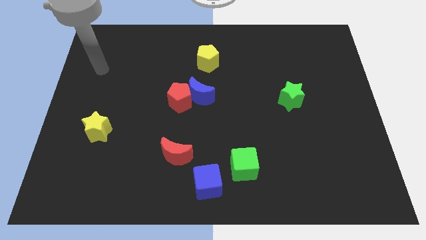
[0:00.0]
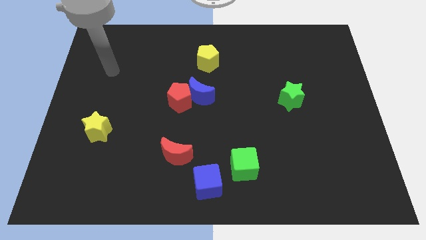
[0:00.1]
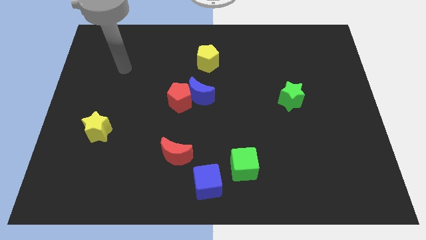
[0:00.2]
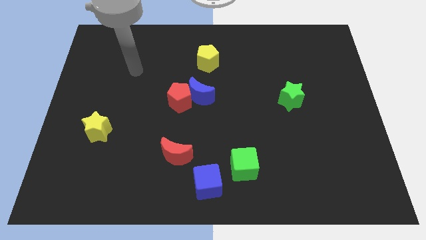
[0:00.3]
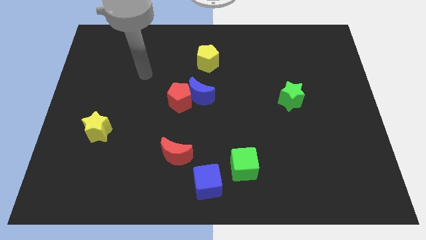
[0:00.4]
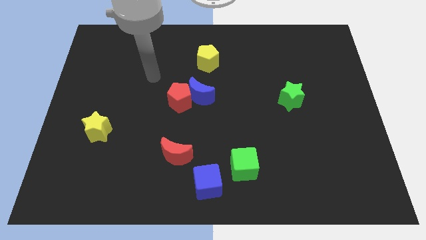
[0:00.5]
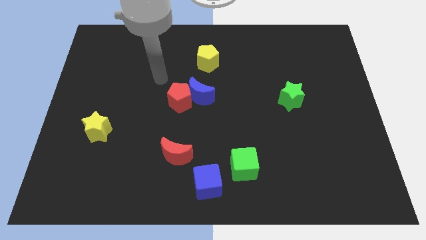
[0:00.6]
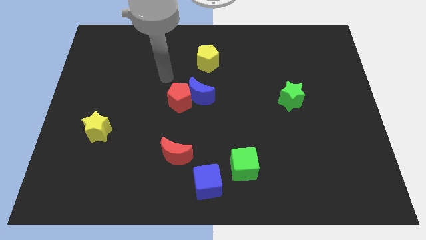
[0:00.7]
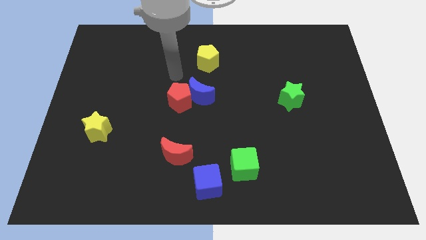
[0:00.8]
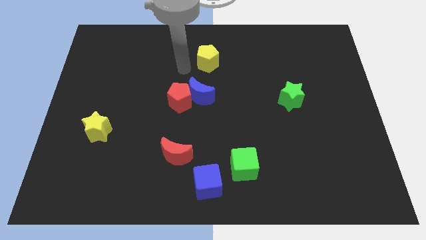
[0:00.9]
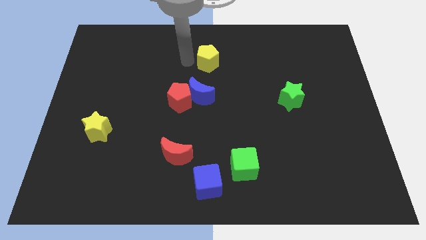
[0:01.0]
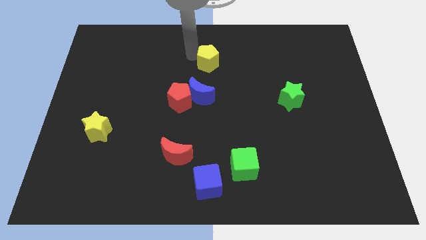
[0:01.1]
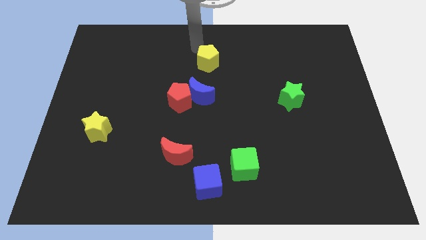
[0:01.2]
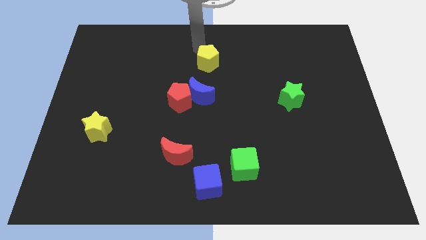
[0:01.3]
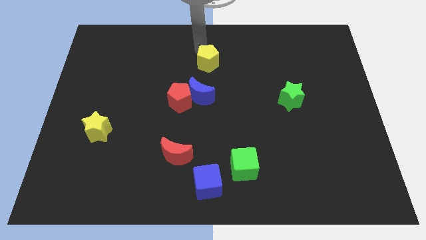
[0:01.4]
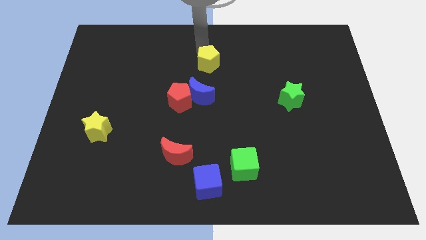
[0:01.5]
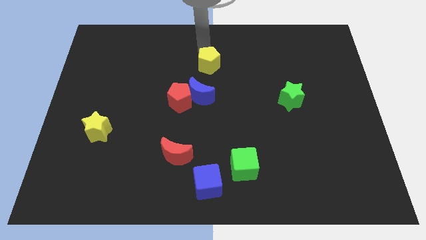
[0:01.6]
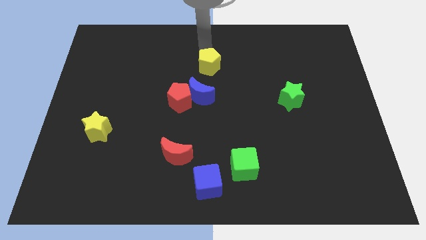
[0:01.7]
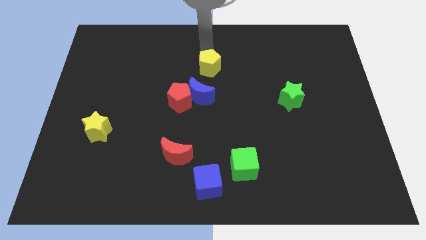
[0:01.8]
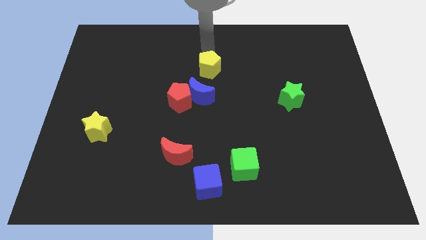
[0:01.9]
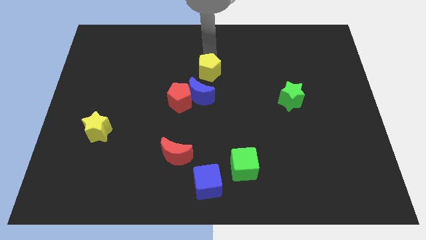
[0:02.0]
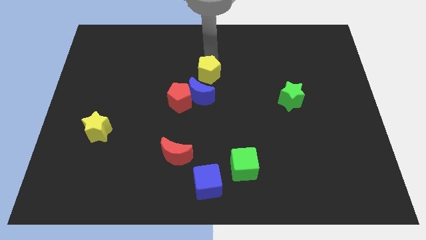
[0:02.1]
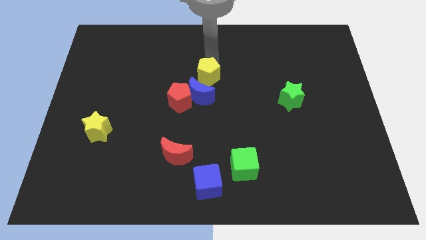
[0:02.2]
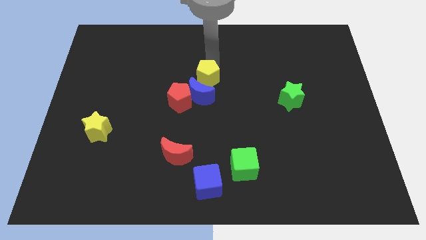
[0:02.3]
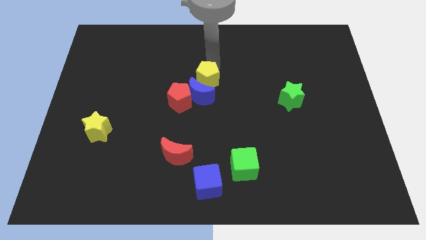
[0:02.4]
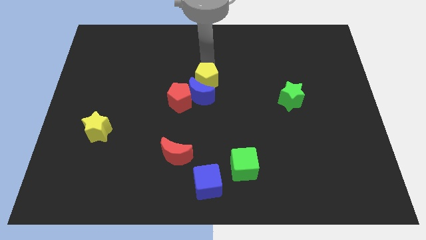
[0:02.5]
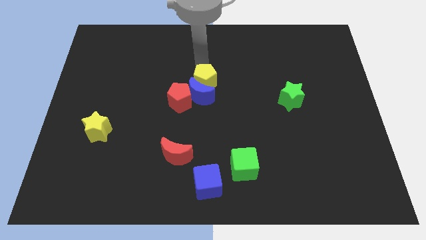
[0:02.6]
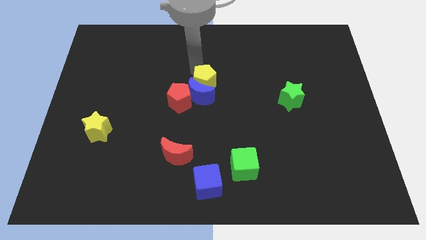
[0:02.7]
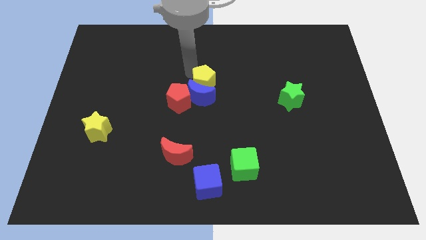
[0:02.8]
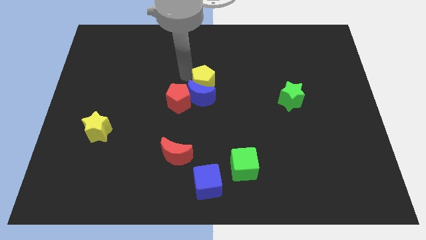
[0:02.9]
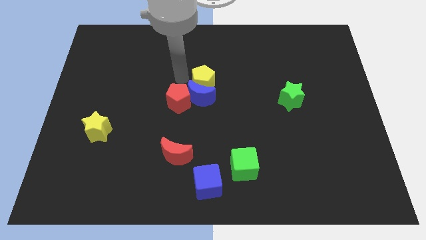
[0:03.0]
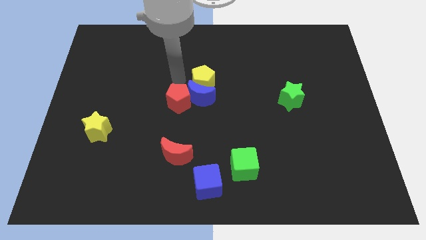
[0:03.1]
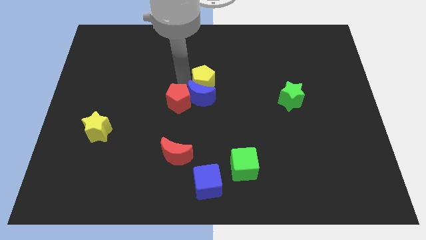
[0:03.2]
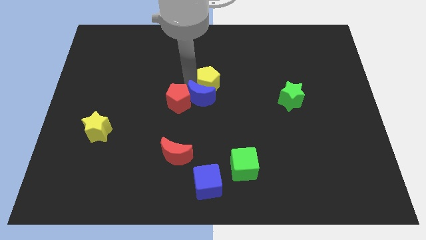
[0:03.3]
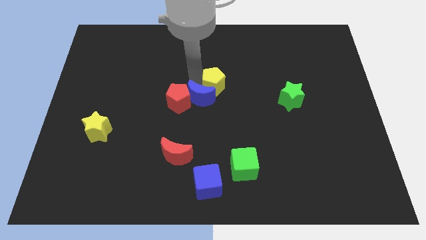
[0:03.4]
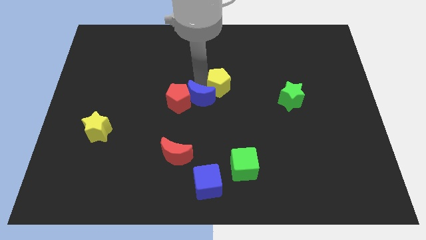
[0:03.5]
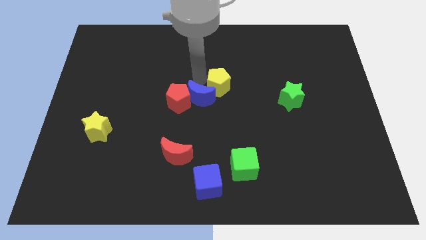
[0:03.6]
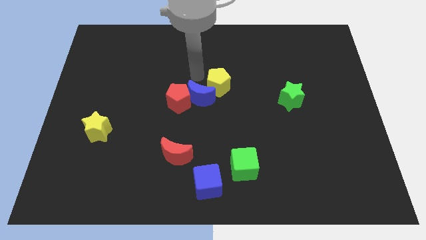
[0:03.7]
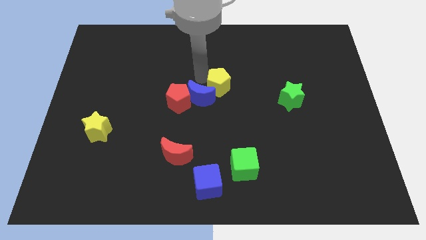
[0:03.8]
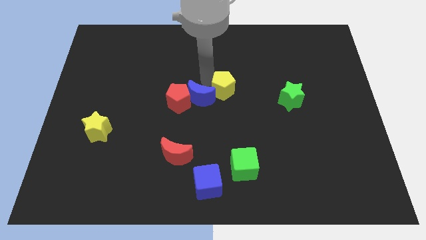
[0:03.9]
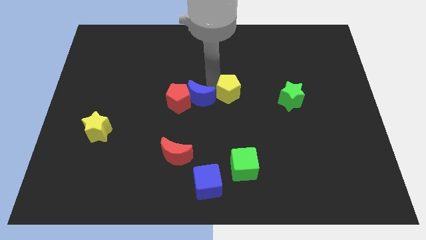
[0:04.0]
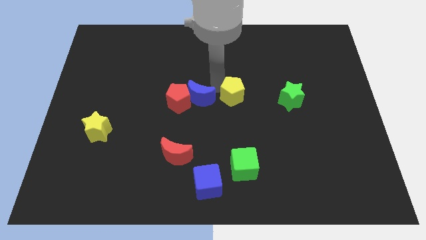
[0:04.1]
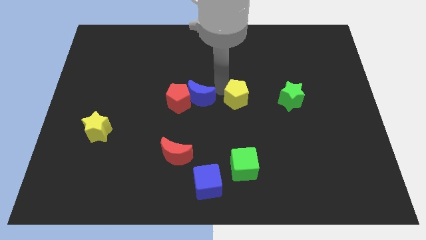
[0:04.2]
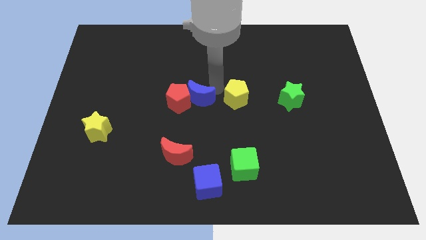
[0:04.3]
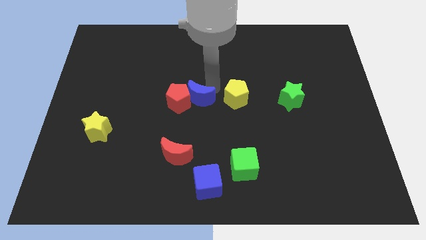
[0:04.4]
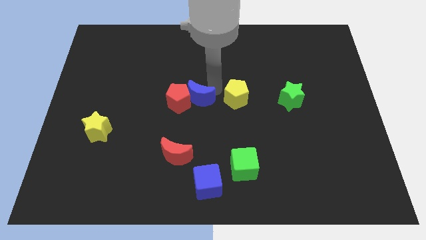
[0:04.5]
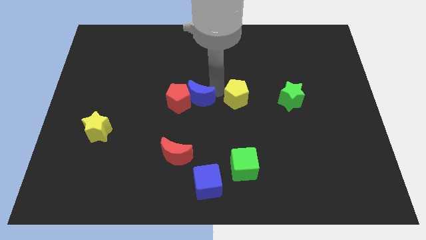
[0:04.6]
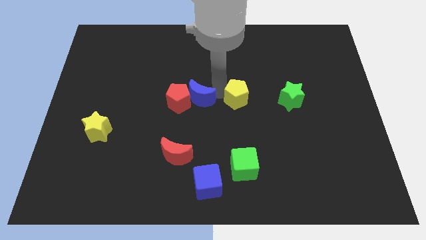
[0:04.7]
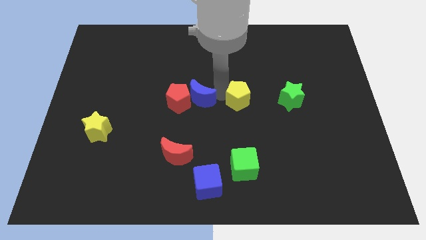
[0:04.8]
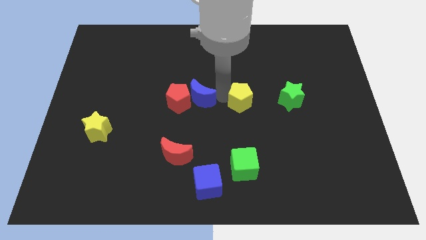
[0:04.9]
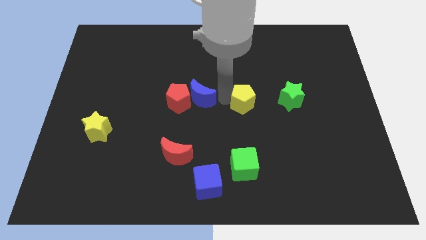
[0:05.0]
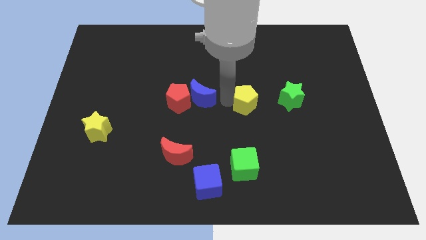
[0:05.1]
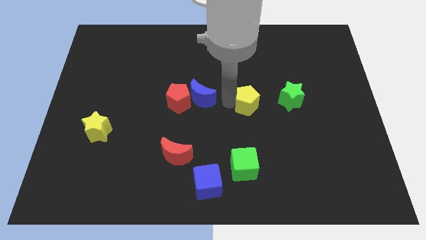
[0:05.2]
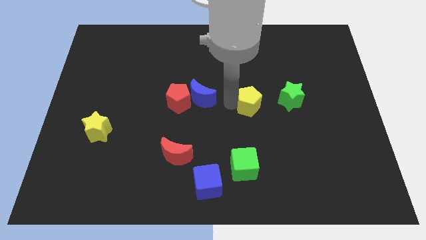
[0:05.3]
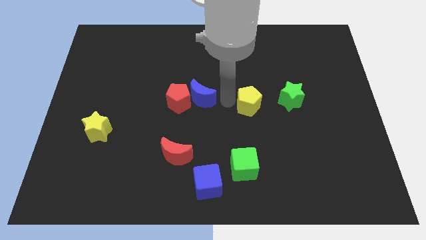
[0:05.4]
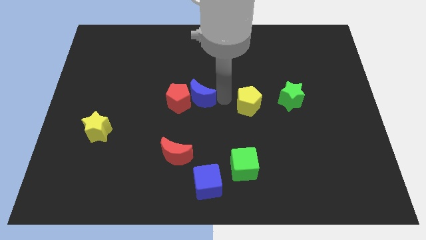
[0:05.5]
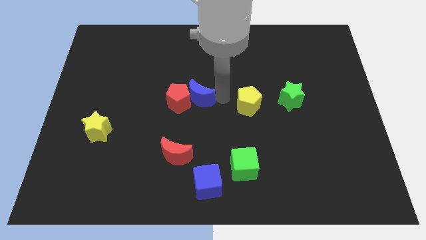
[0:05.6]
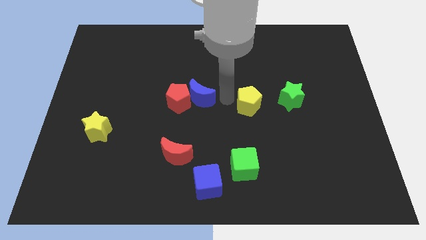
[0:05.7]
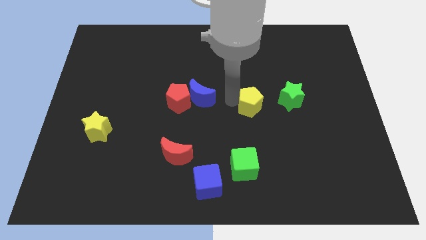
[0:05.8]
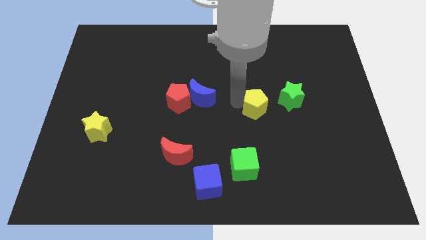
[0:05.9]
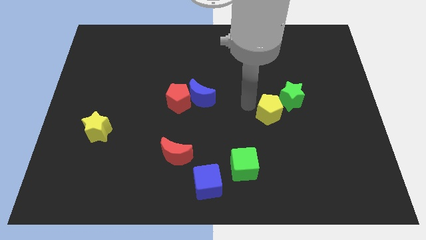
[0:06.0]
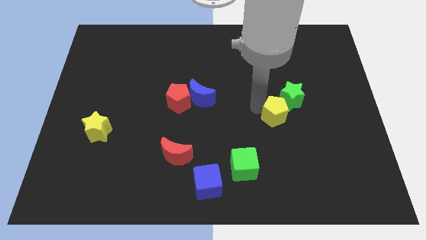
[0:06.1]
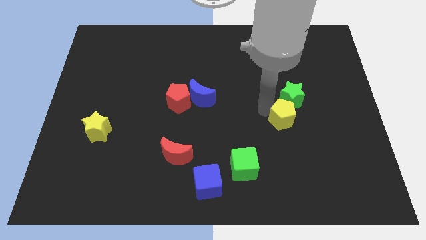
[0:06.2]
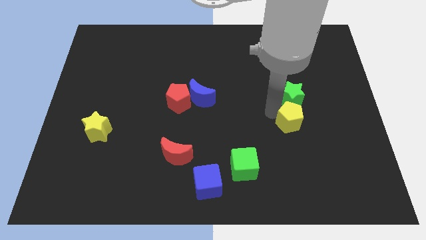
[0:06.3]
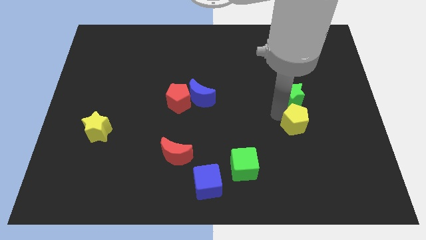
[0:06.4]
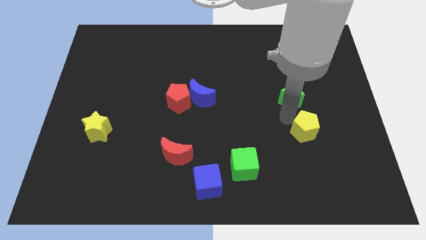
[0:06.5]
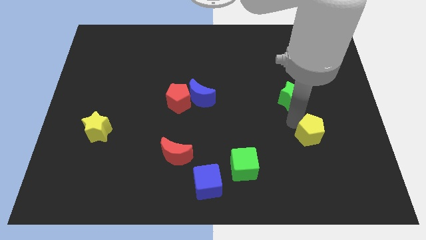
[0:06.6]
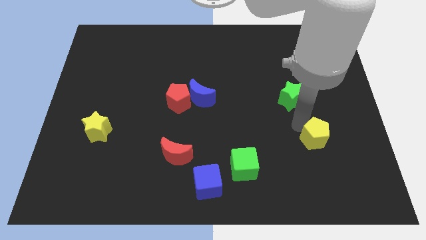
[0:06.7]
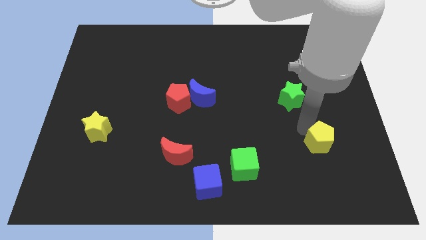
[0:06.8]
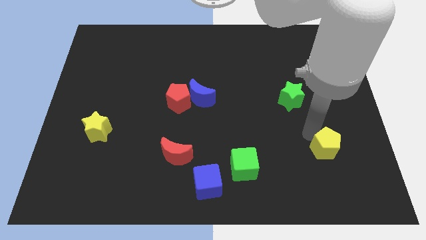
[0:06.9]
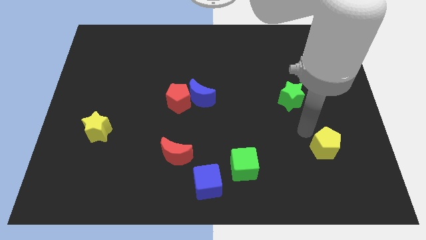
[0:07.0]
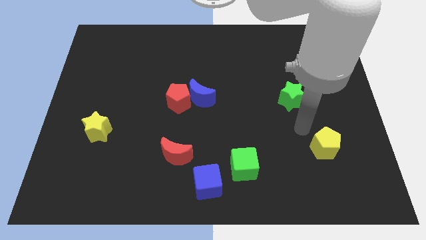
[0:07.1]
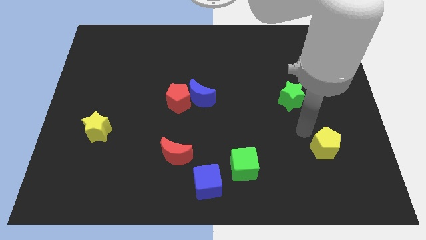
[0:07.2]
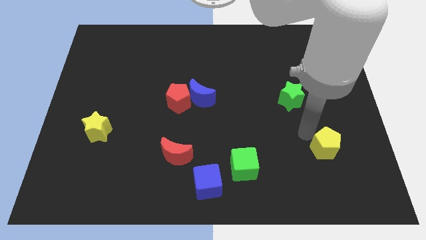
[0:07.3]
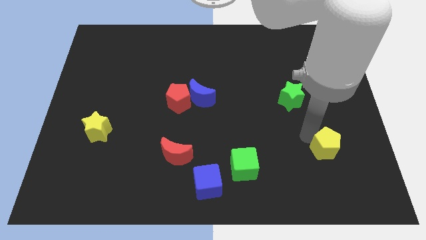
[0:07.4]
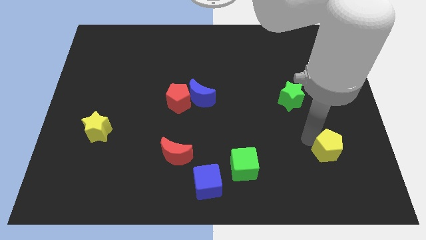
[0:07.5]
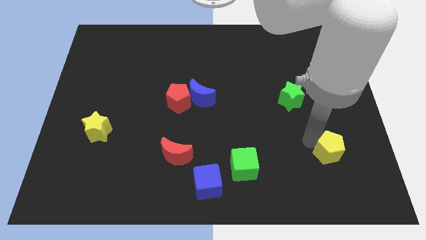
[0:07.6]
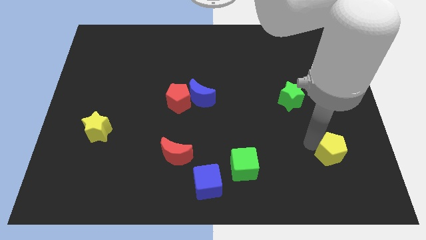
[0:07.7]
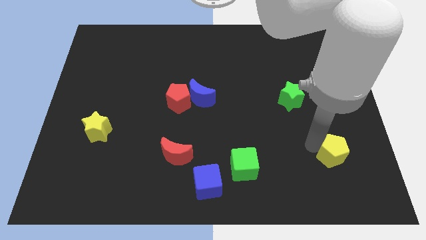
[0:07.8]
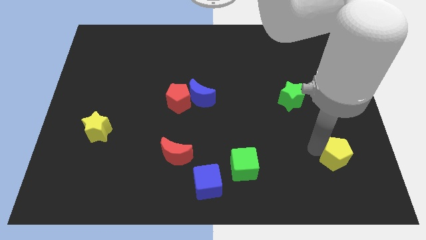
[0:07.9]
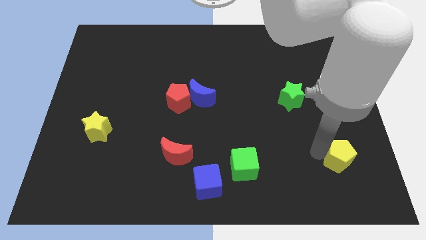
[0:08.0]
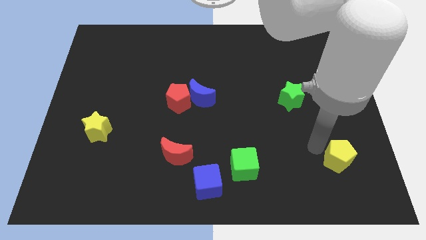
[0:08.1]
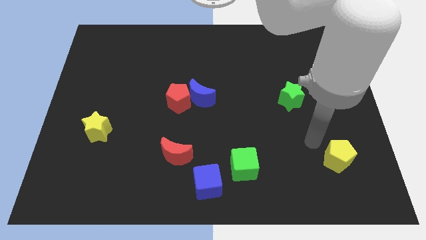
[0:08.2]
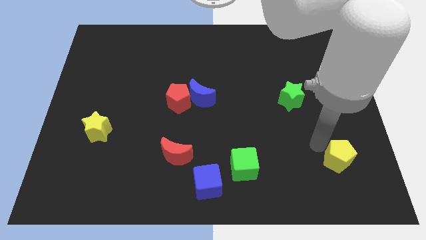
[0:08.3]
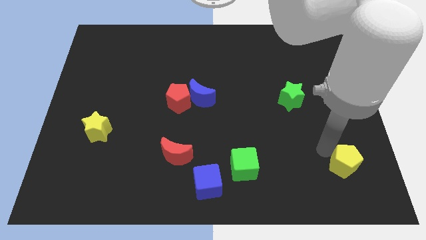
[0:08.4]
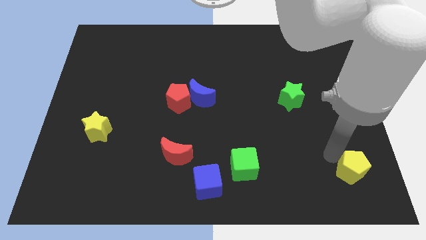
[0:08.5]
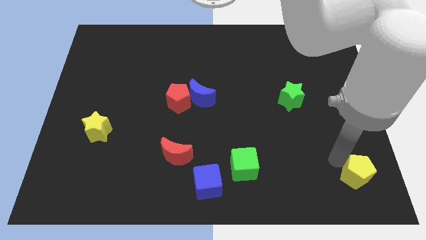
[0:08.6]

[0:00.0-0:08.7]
move the yellow pentagon to the bottom right corner
